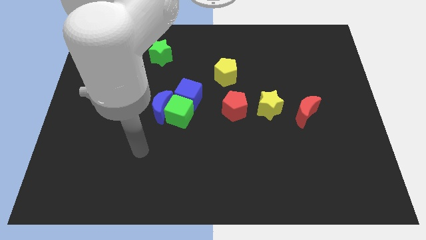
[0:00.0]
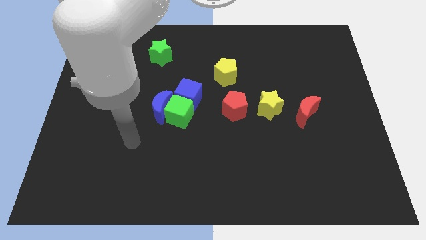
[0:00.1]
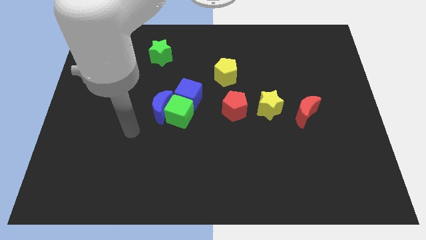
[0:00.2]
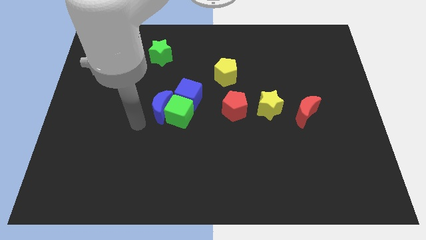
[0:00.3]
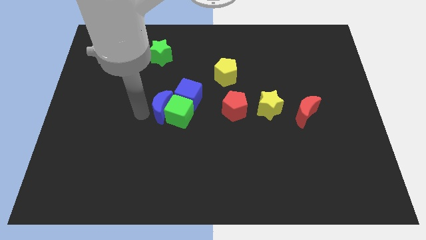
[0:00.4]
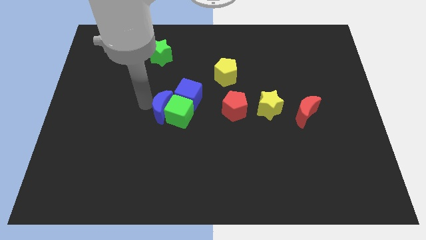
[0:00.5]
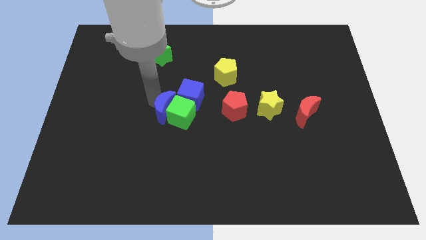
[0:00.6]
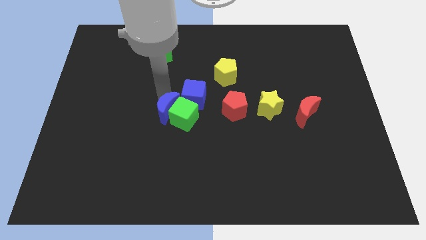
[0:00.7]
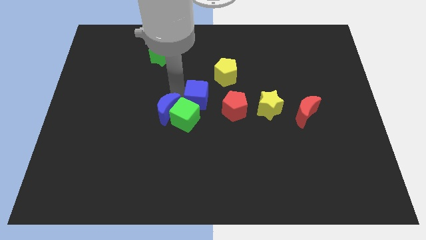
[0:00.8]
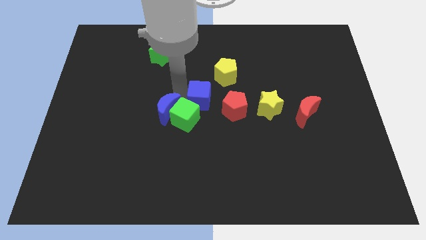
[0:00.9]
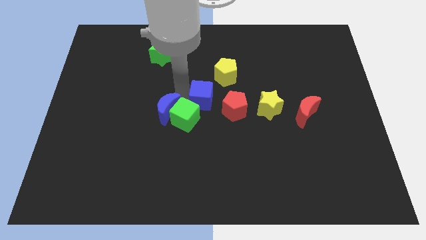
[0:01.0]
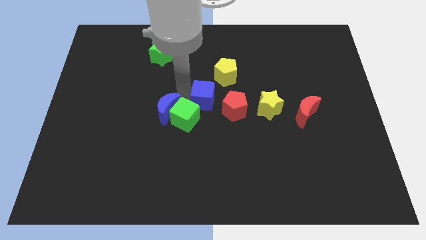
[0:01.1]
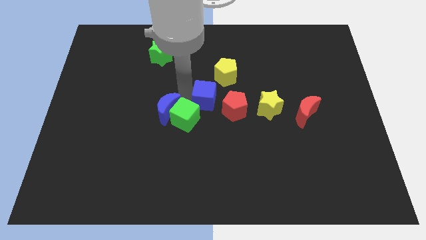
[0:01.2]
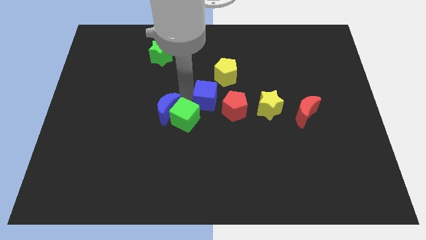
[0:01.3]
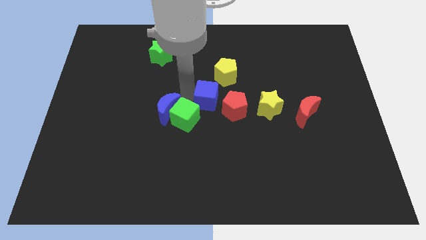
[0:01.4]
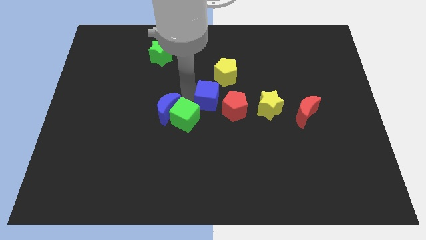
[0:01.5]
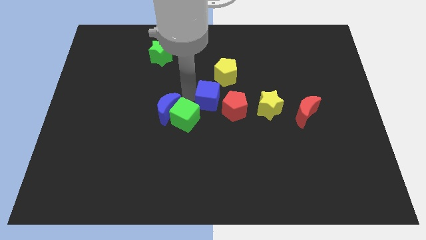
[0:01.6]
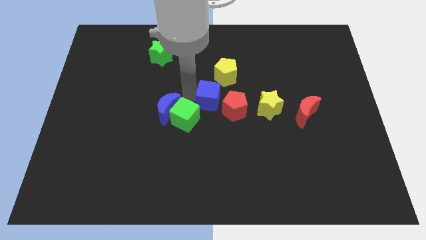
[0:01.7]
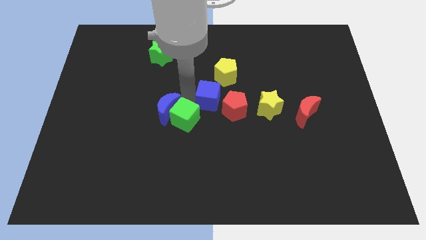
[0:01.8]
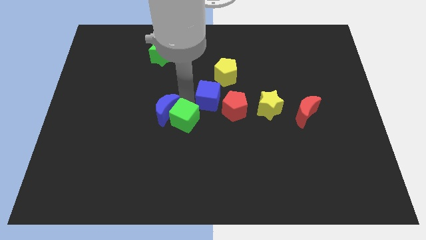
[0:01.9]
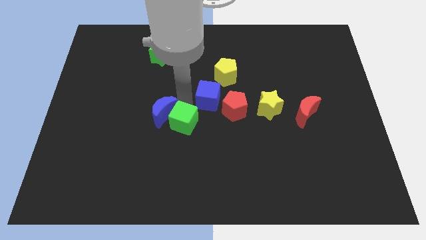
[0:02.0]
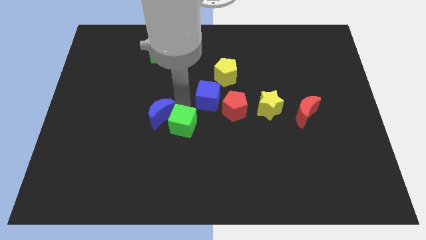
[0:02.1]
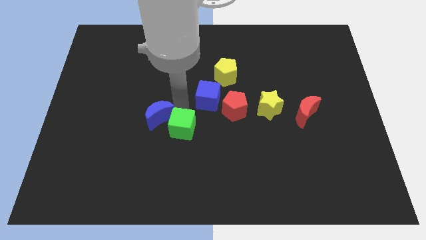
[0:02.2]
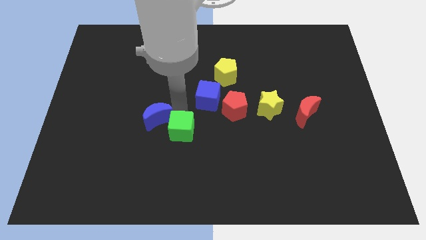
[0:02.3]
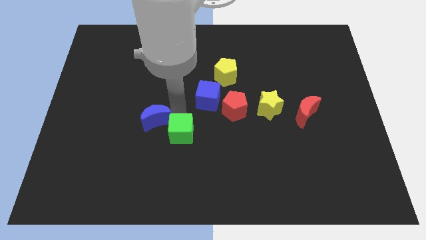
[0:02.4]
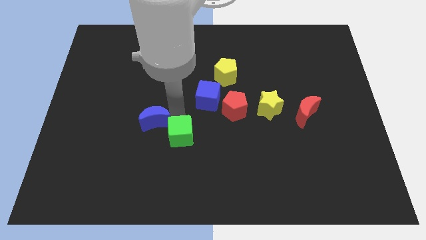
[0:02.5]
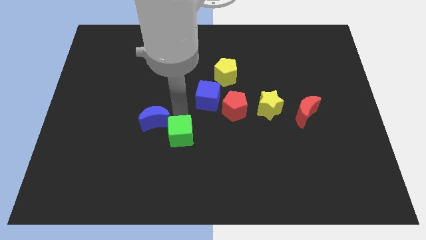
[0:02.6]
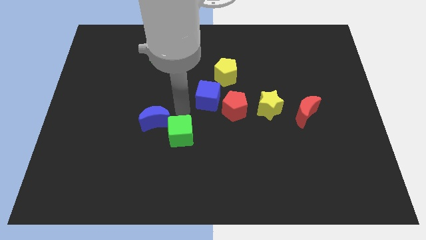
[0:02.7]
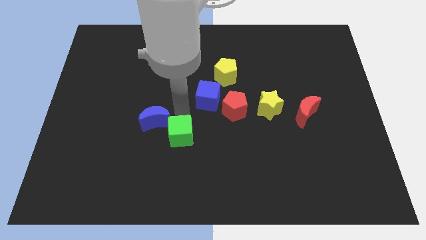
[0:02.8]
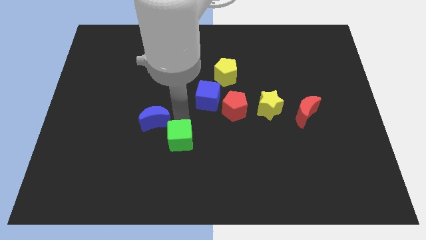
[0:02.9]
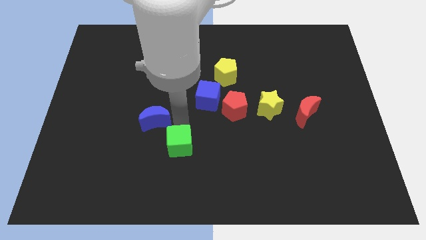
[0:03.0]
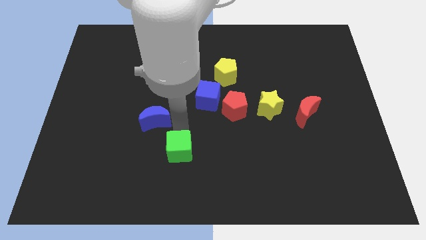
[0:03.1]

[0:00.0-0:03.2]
separate the green cube from the blue moon and blue cube

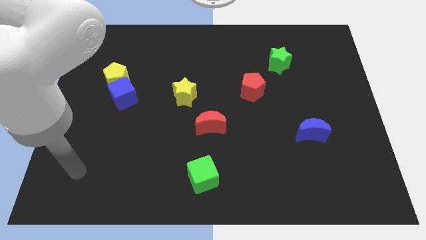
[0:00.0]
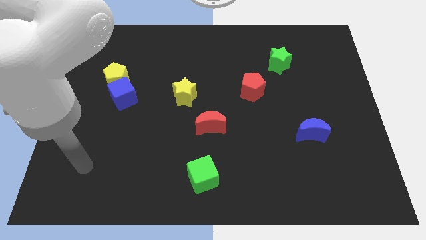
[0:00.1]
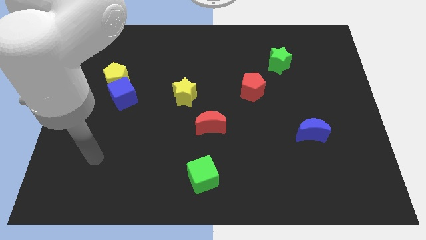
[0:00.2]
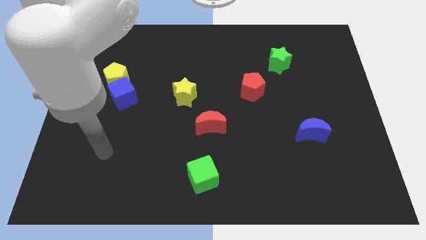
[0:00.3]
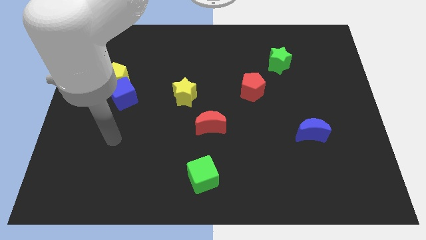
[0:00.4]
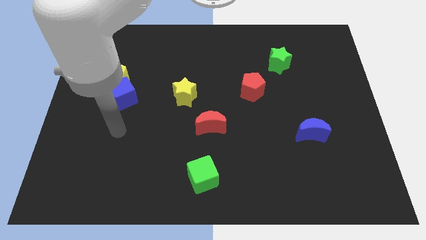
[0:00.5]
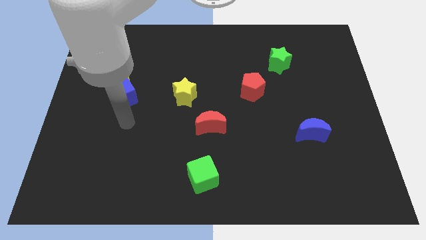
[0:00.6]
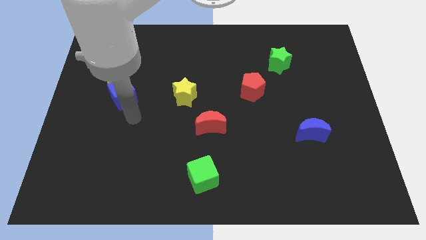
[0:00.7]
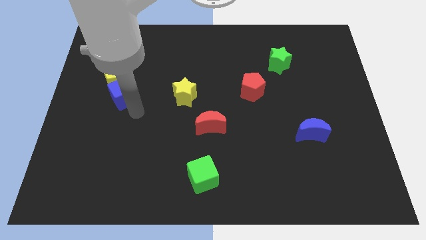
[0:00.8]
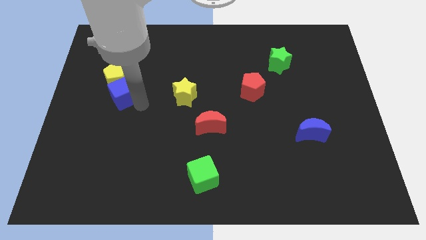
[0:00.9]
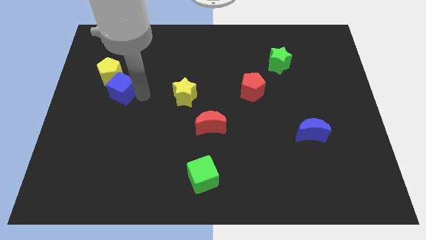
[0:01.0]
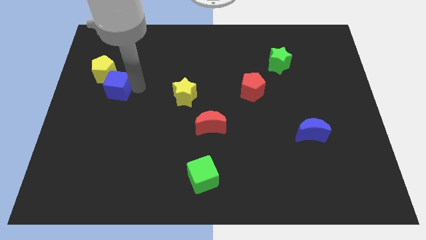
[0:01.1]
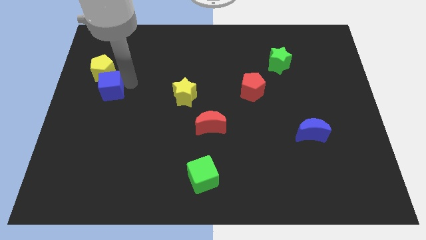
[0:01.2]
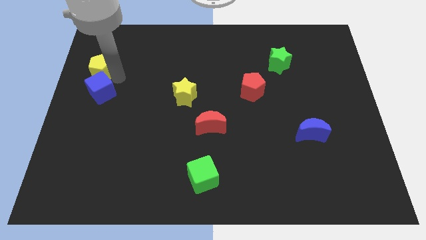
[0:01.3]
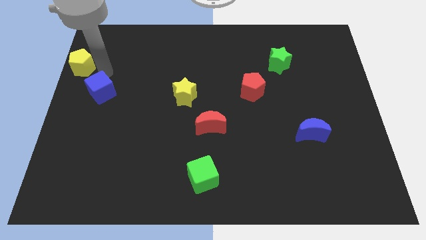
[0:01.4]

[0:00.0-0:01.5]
pull the blue cube apart from the yellow pentagon

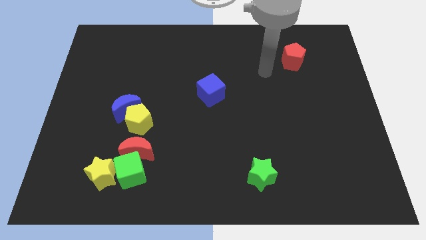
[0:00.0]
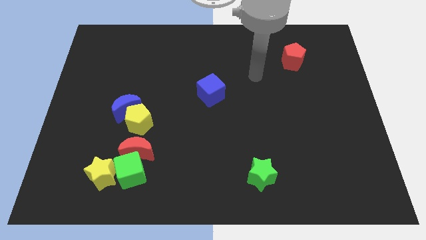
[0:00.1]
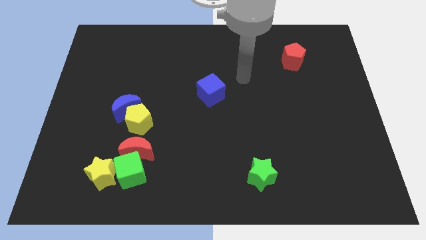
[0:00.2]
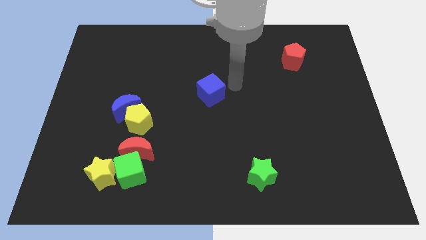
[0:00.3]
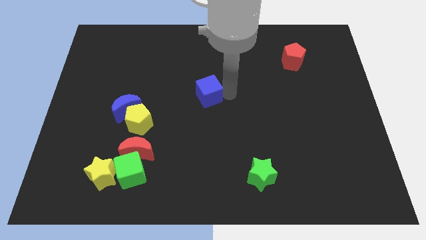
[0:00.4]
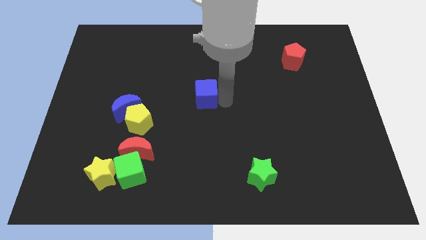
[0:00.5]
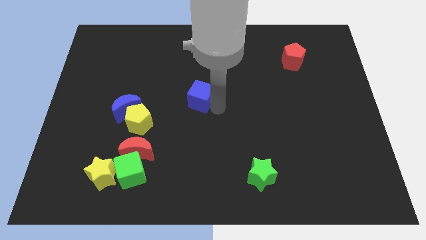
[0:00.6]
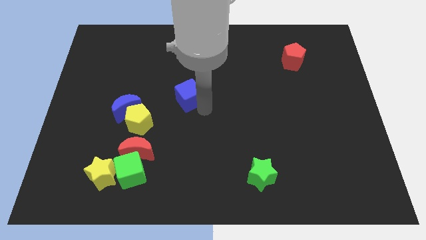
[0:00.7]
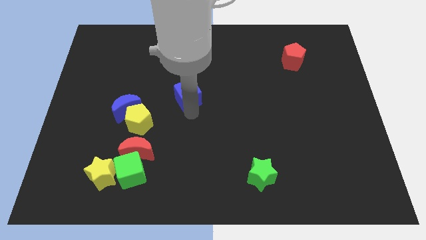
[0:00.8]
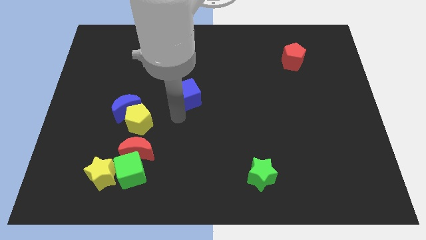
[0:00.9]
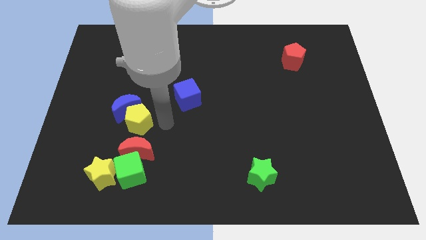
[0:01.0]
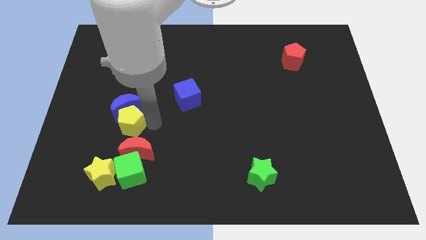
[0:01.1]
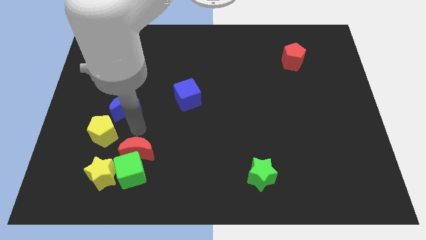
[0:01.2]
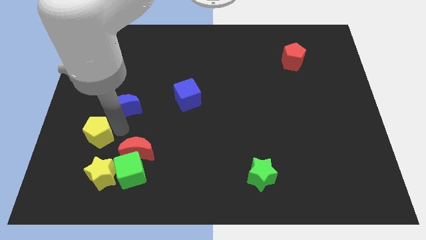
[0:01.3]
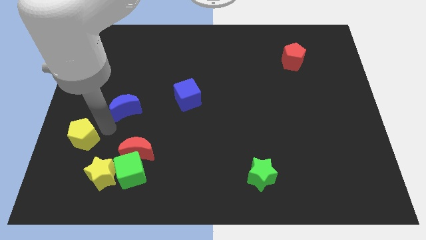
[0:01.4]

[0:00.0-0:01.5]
pull the blue moon apart from the yellow pentagon

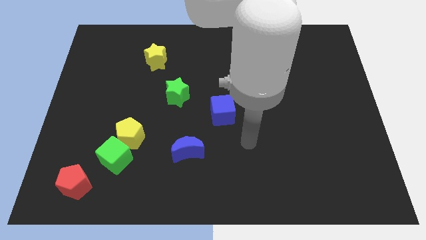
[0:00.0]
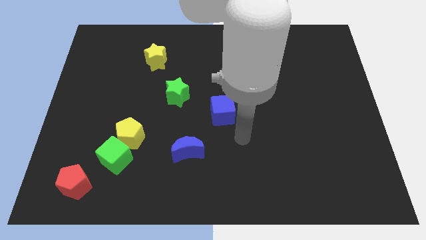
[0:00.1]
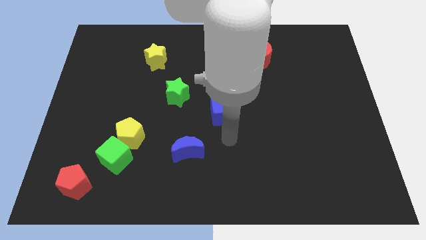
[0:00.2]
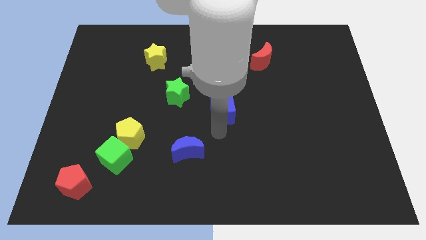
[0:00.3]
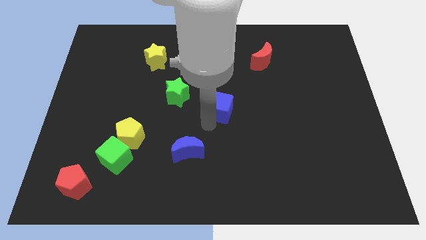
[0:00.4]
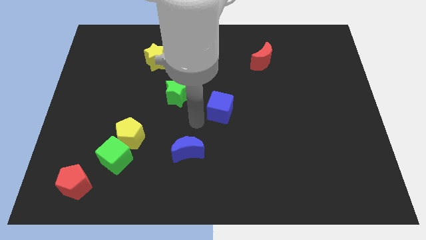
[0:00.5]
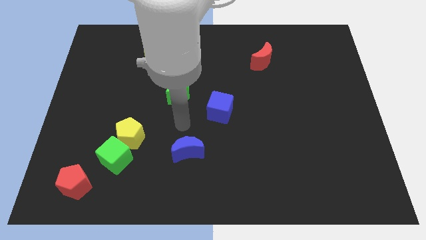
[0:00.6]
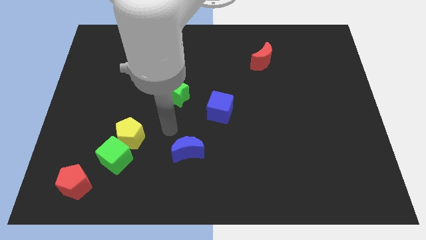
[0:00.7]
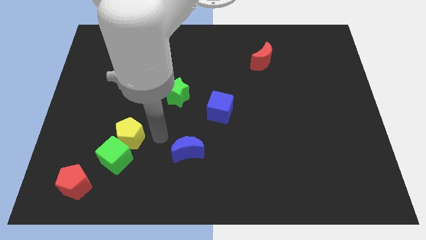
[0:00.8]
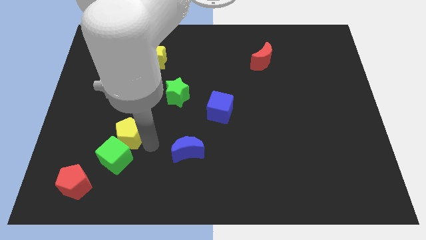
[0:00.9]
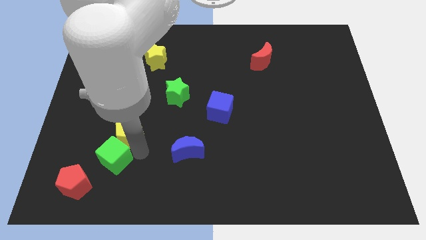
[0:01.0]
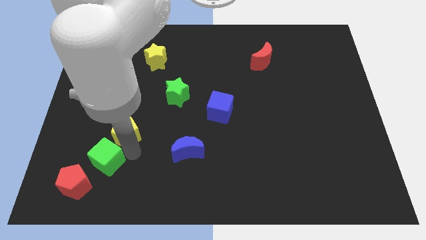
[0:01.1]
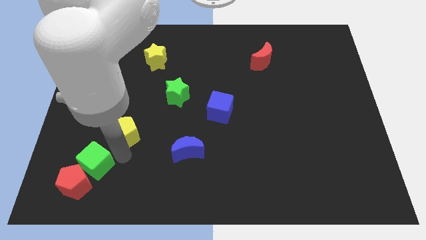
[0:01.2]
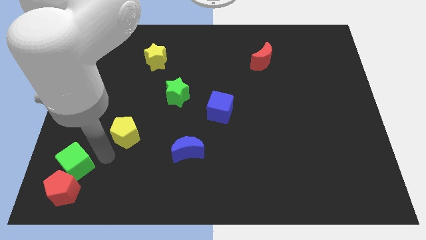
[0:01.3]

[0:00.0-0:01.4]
move the yellow pentagon away from the green cube

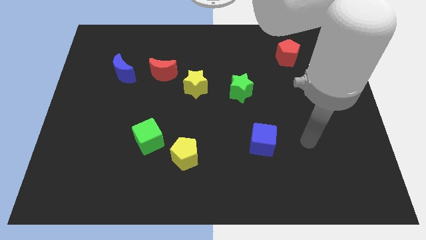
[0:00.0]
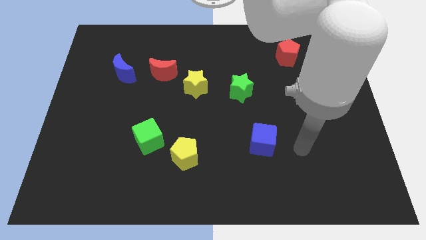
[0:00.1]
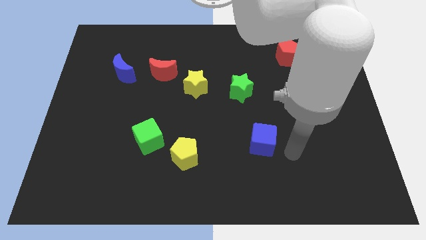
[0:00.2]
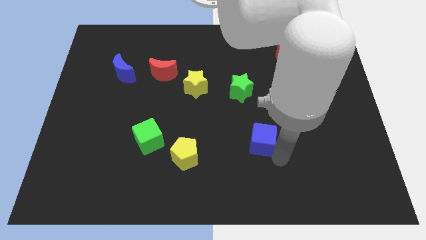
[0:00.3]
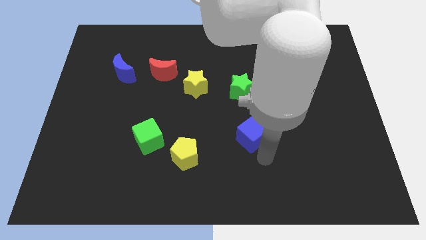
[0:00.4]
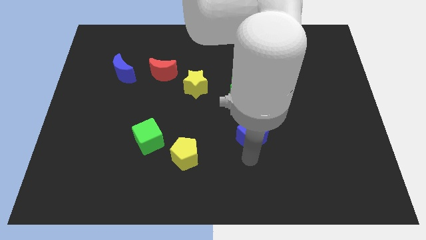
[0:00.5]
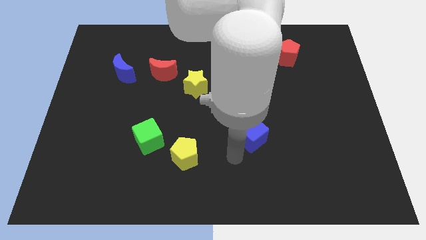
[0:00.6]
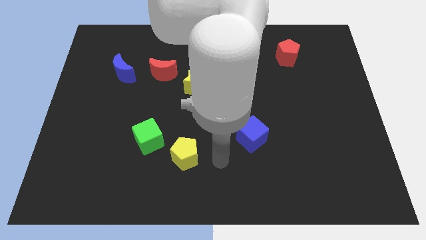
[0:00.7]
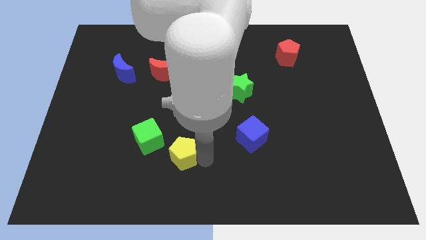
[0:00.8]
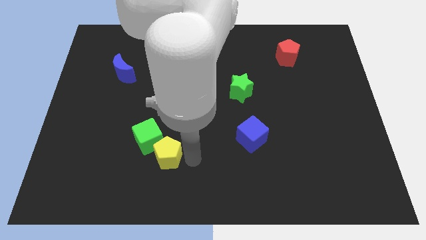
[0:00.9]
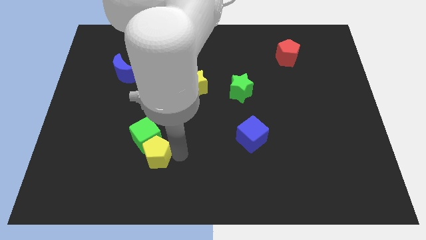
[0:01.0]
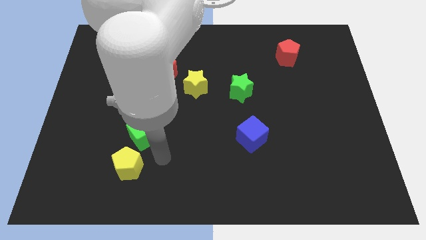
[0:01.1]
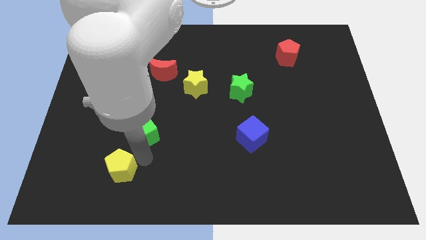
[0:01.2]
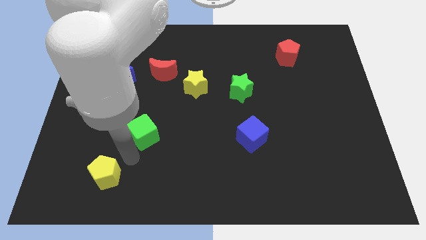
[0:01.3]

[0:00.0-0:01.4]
pull the green cube apart from the yellow pentagon

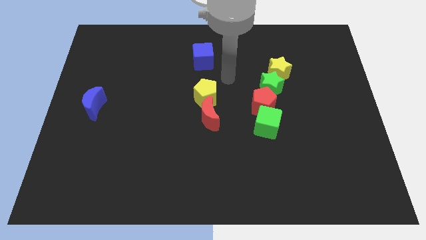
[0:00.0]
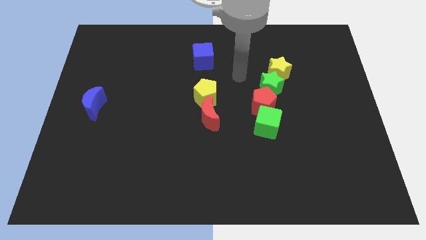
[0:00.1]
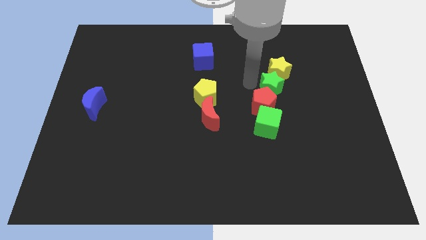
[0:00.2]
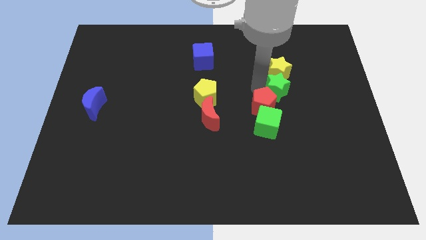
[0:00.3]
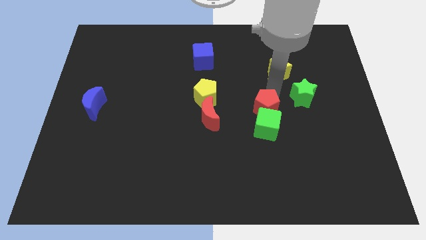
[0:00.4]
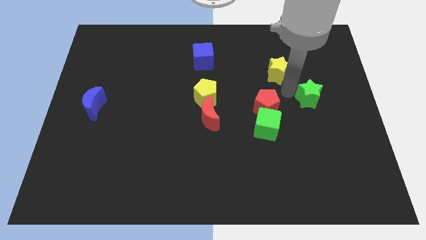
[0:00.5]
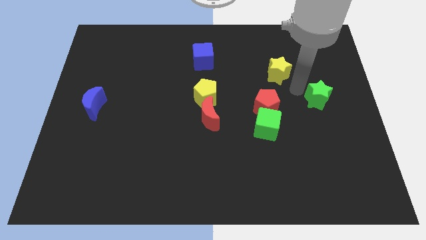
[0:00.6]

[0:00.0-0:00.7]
move the yellow star away from the green star
